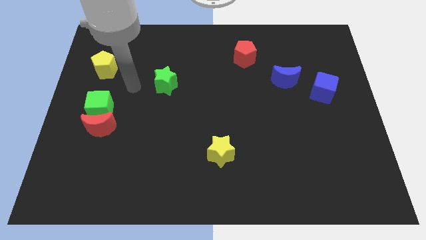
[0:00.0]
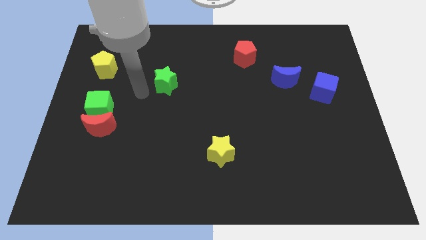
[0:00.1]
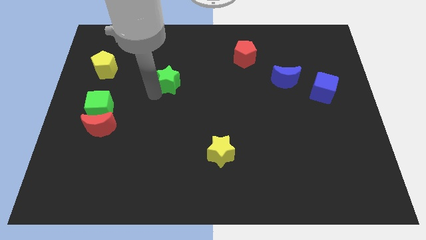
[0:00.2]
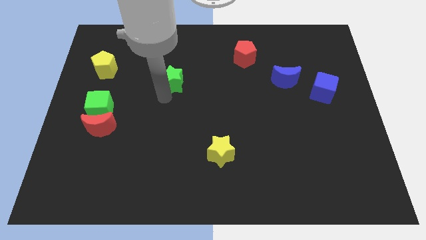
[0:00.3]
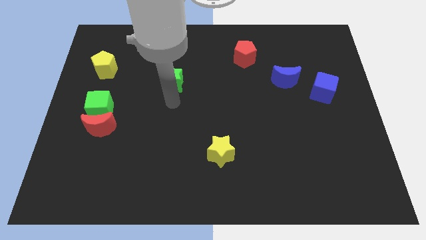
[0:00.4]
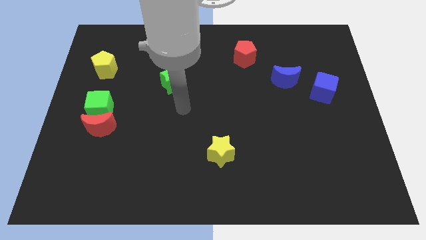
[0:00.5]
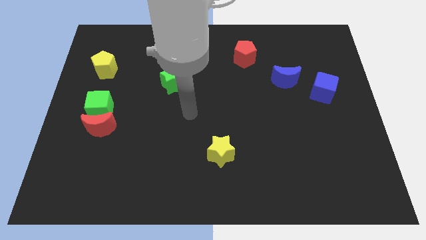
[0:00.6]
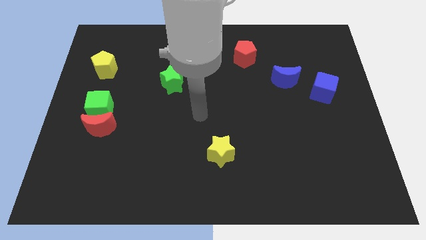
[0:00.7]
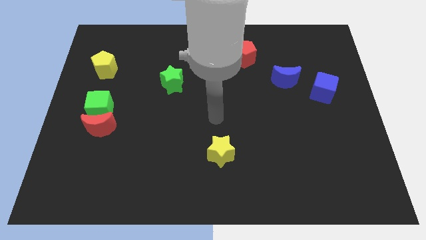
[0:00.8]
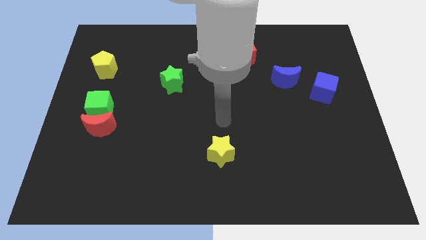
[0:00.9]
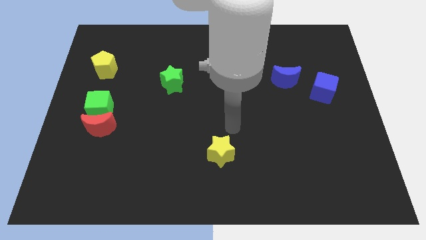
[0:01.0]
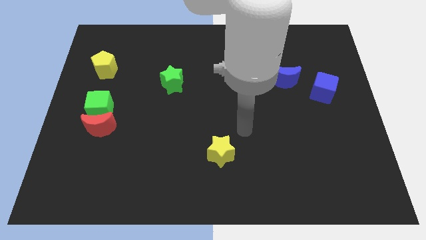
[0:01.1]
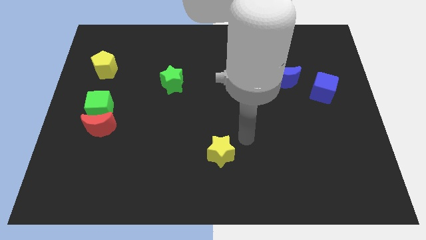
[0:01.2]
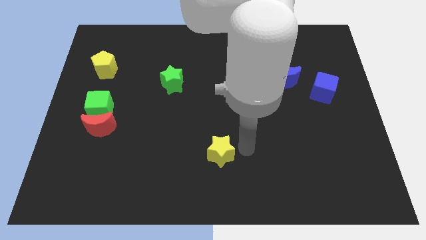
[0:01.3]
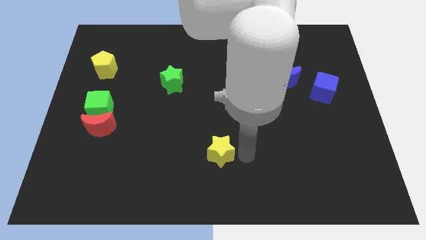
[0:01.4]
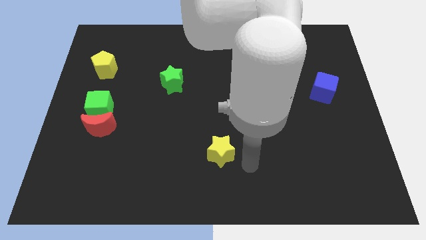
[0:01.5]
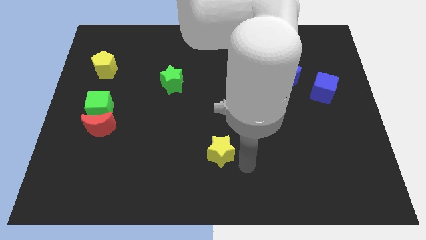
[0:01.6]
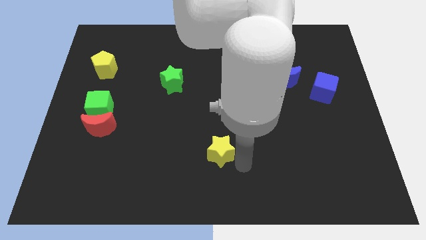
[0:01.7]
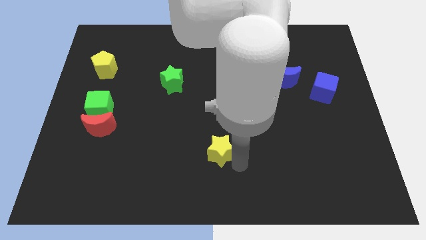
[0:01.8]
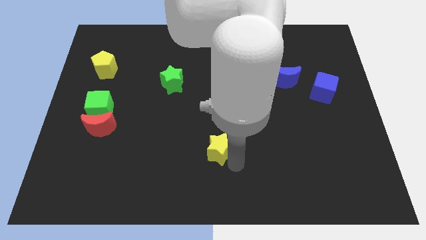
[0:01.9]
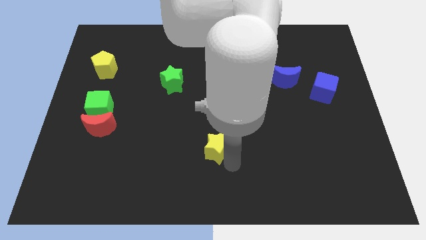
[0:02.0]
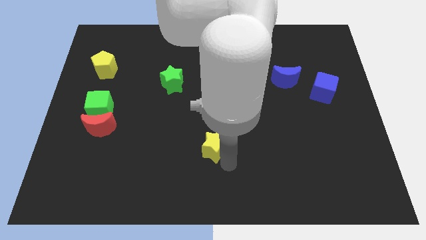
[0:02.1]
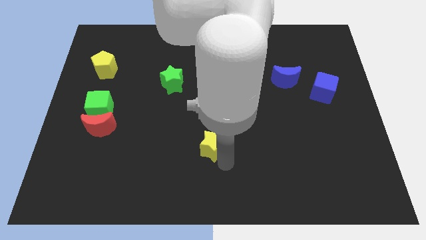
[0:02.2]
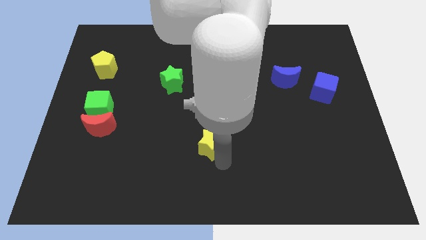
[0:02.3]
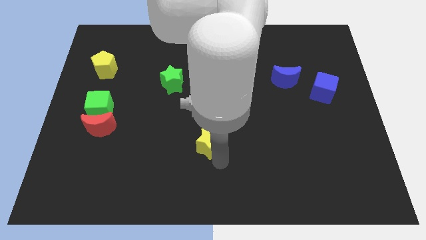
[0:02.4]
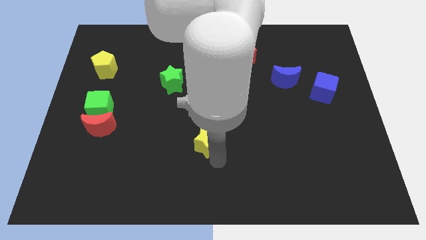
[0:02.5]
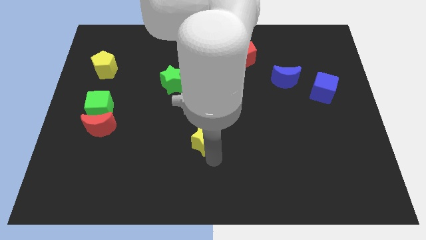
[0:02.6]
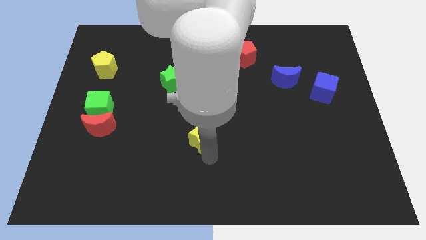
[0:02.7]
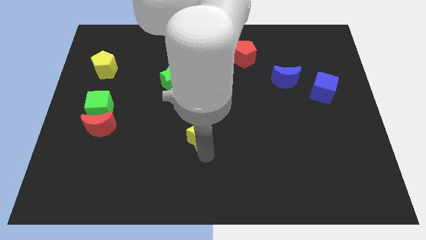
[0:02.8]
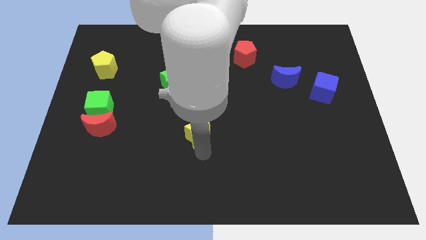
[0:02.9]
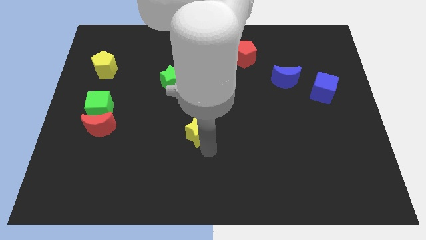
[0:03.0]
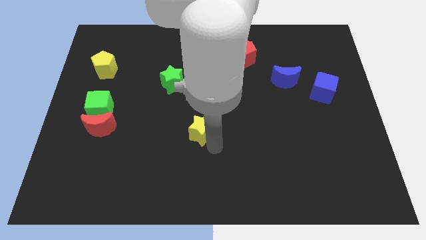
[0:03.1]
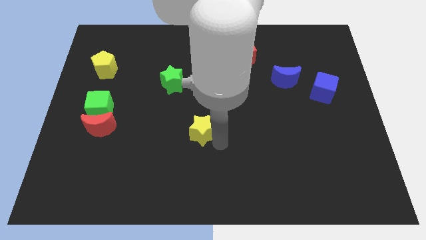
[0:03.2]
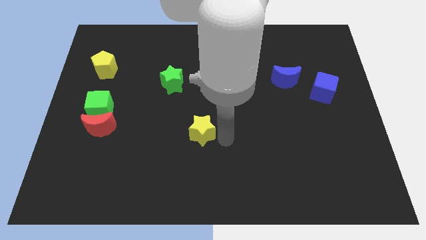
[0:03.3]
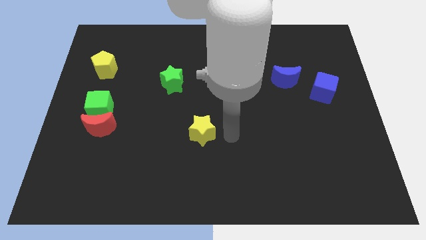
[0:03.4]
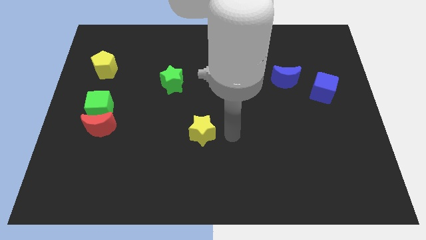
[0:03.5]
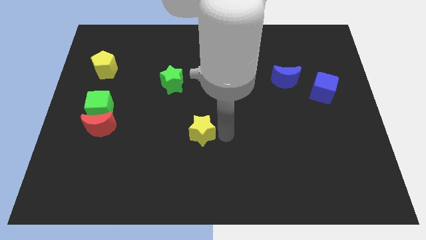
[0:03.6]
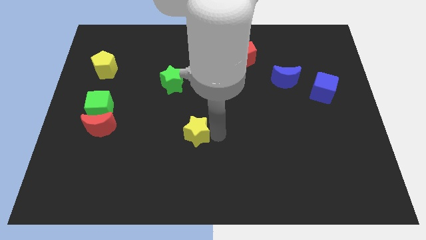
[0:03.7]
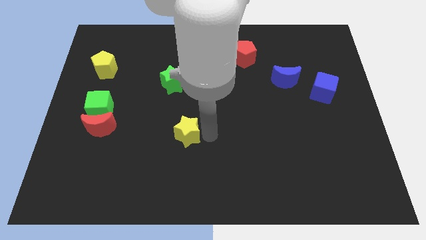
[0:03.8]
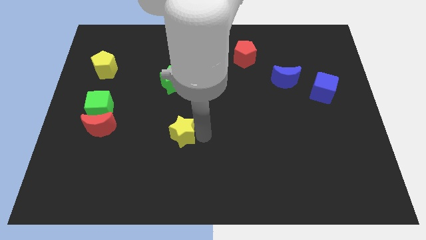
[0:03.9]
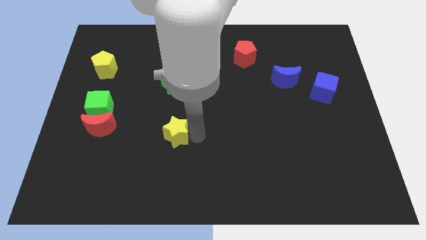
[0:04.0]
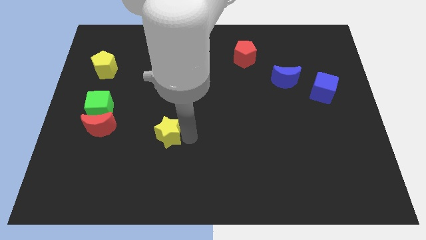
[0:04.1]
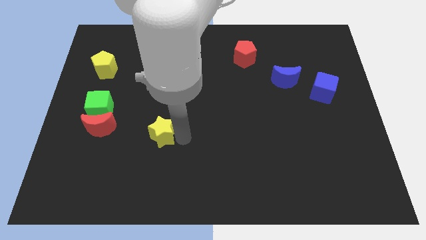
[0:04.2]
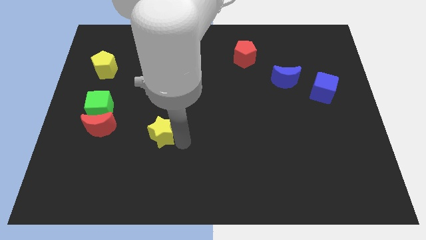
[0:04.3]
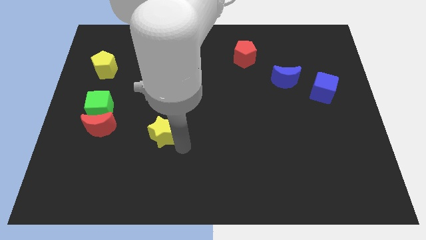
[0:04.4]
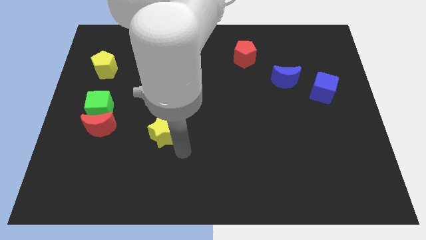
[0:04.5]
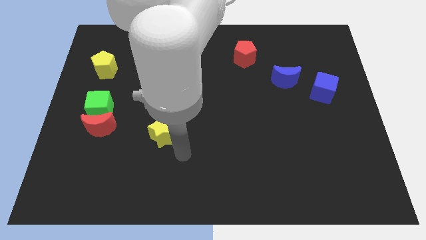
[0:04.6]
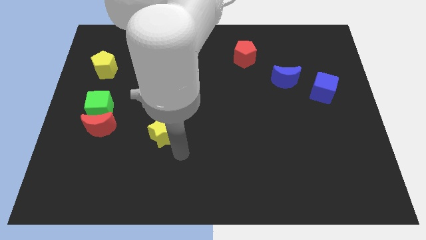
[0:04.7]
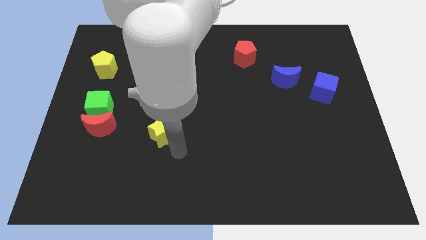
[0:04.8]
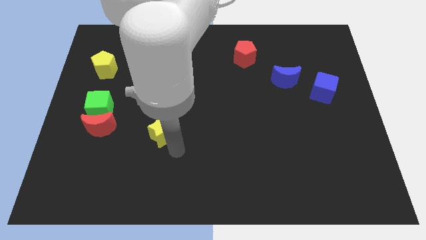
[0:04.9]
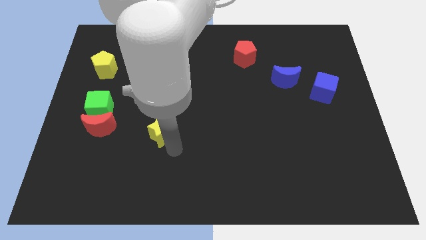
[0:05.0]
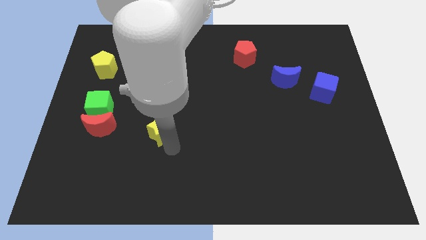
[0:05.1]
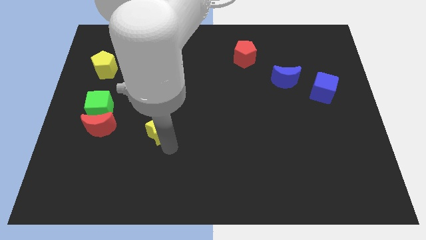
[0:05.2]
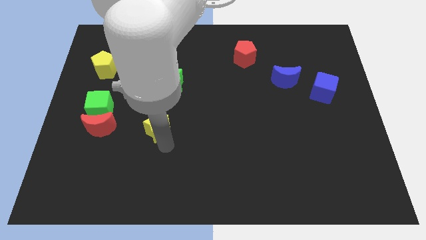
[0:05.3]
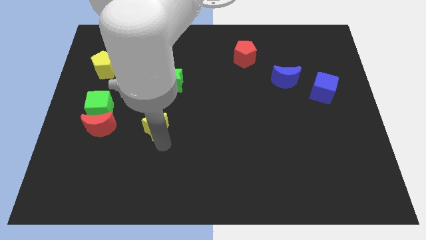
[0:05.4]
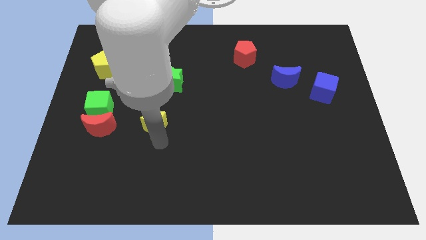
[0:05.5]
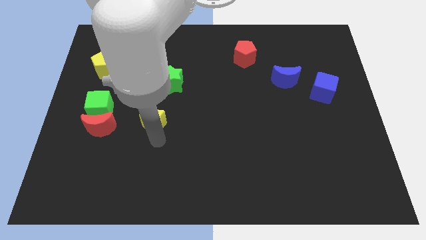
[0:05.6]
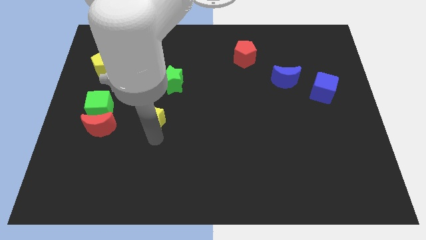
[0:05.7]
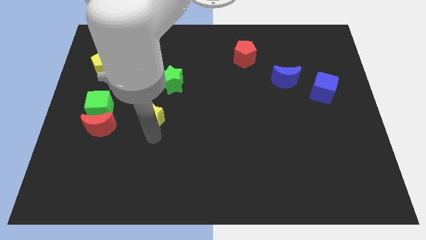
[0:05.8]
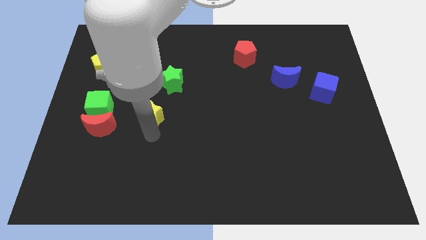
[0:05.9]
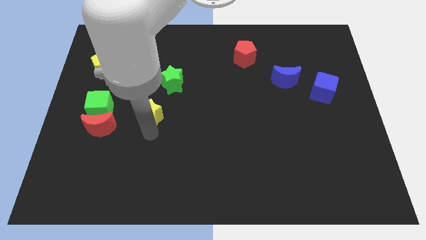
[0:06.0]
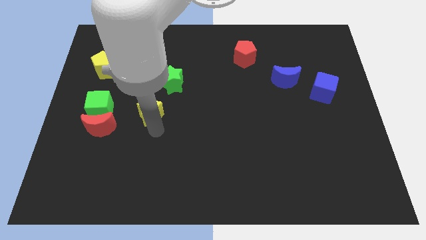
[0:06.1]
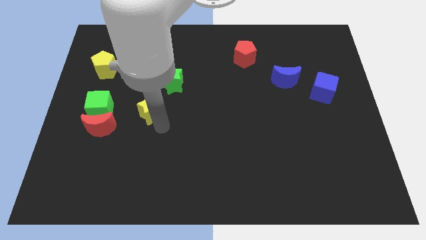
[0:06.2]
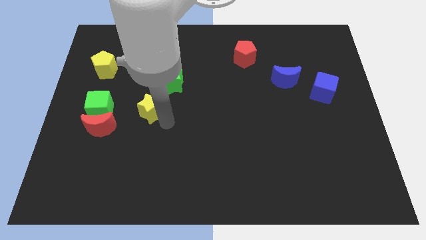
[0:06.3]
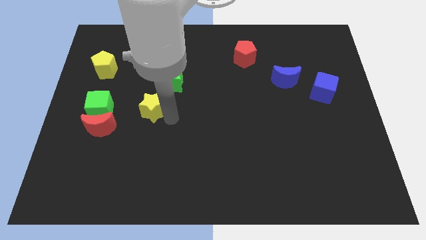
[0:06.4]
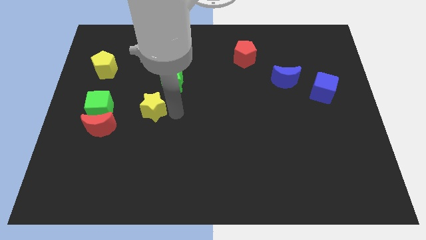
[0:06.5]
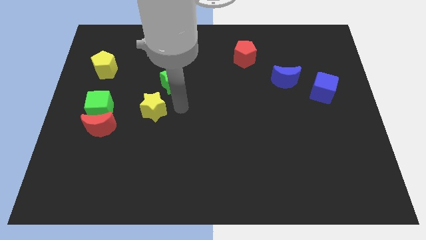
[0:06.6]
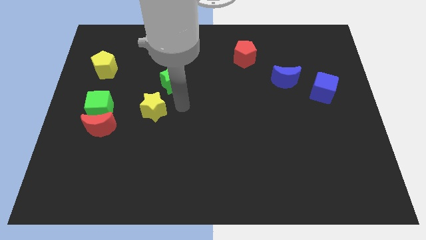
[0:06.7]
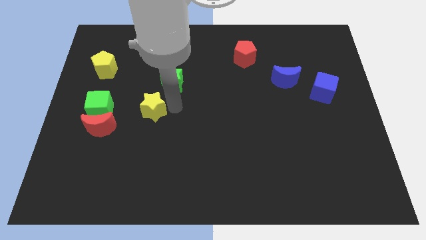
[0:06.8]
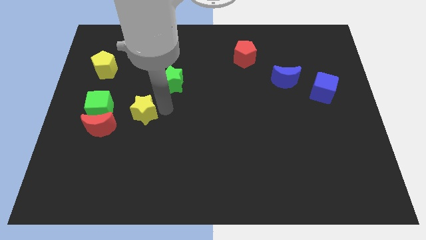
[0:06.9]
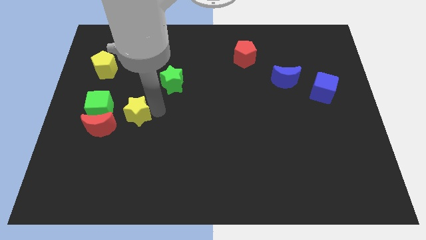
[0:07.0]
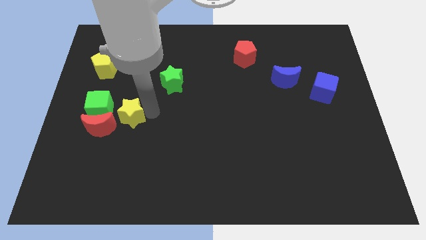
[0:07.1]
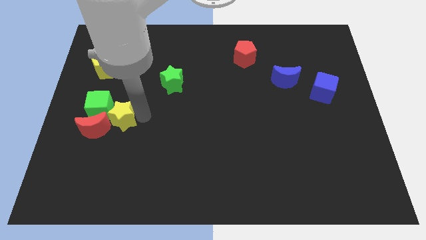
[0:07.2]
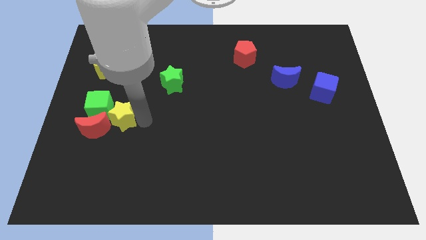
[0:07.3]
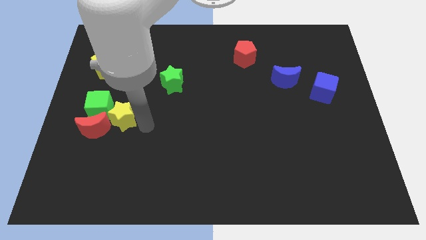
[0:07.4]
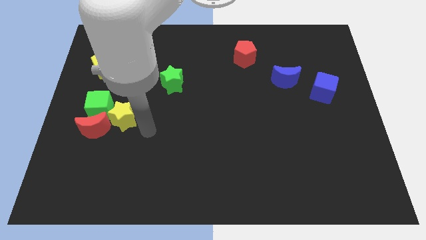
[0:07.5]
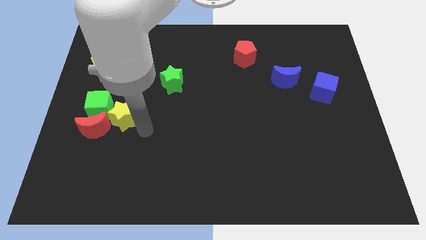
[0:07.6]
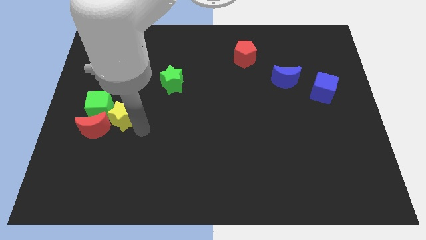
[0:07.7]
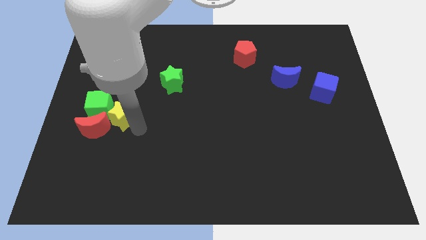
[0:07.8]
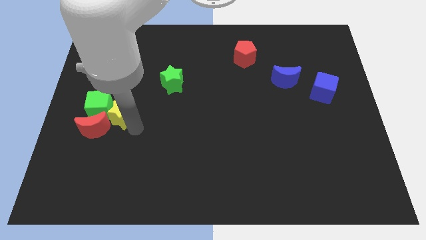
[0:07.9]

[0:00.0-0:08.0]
move the yellow star close to the green cube
